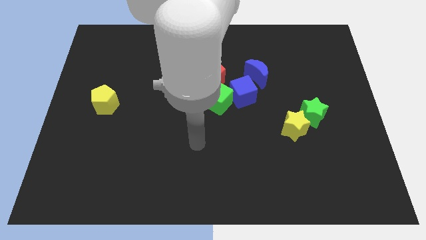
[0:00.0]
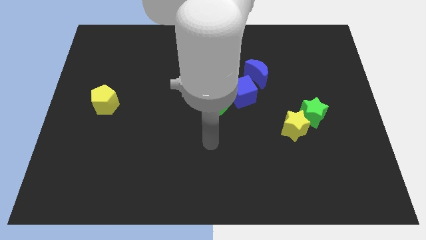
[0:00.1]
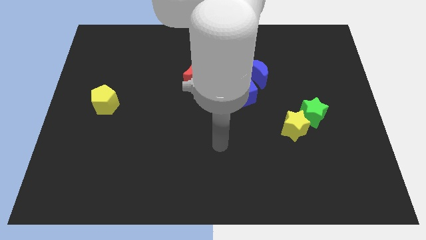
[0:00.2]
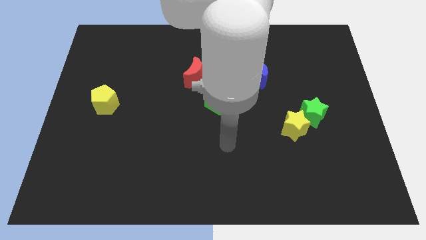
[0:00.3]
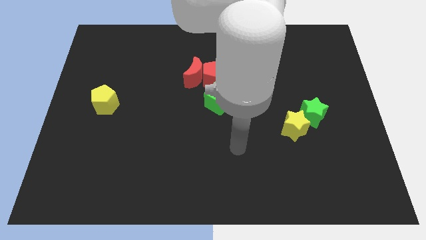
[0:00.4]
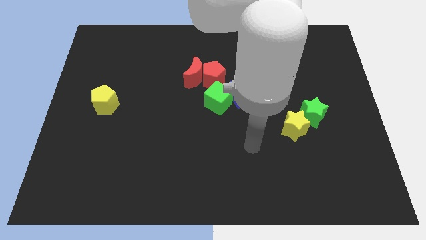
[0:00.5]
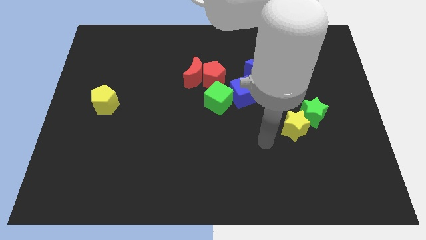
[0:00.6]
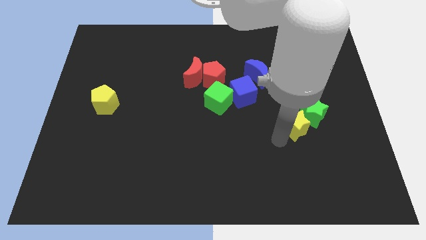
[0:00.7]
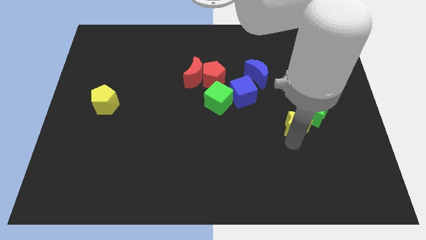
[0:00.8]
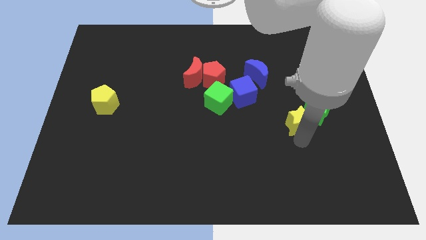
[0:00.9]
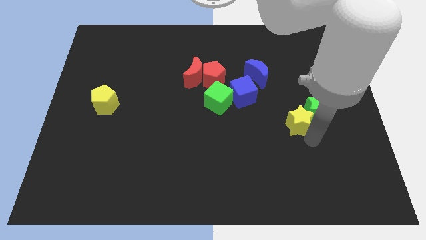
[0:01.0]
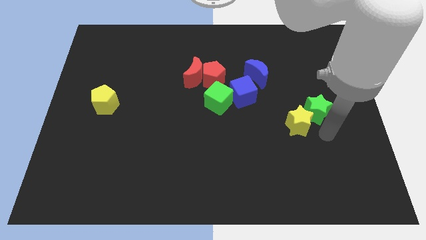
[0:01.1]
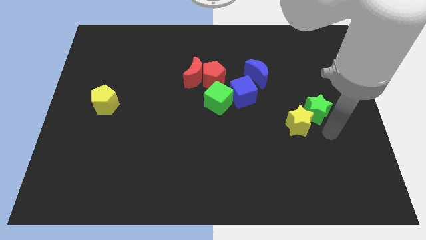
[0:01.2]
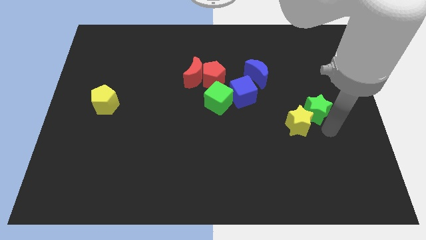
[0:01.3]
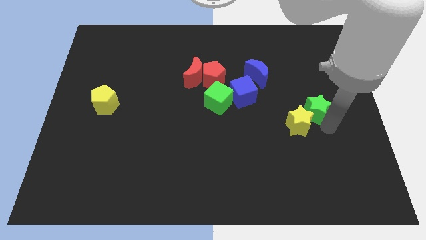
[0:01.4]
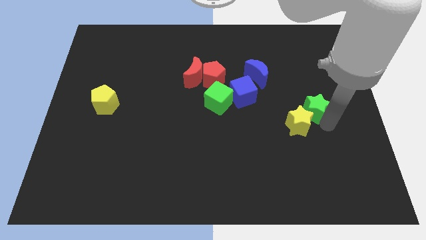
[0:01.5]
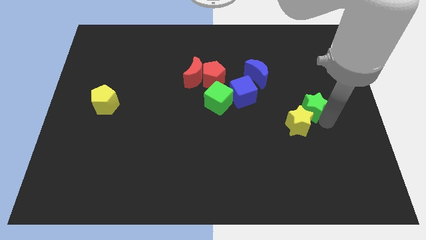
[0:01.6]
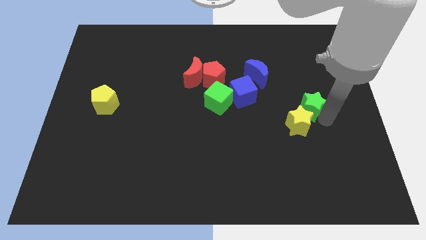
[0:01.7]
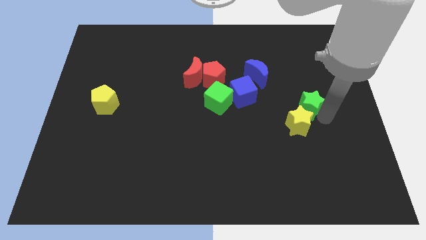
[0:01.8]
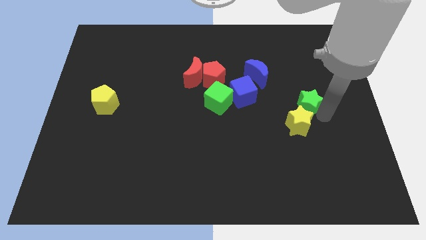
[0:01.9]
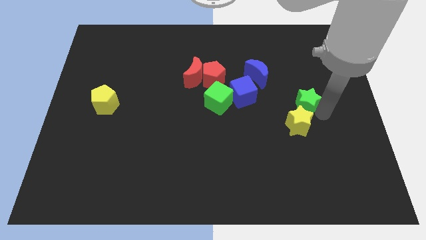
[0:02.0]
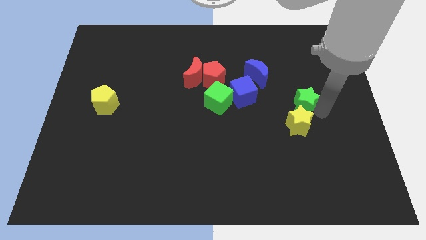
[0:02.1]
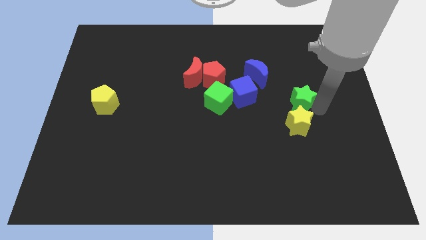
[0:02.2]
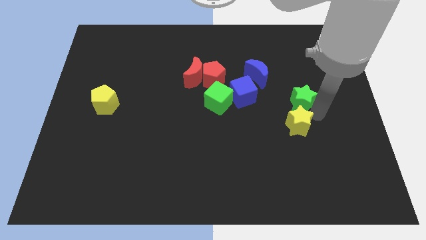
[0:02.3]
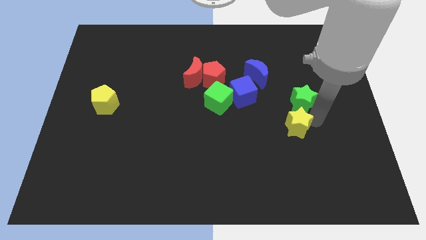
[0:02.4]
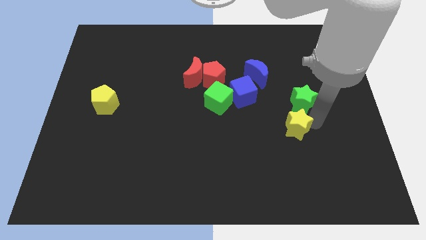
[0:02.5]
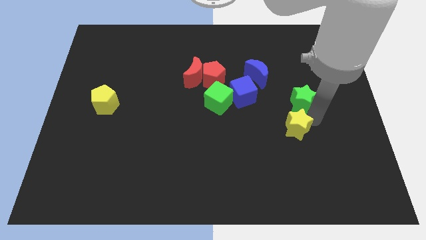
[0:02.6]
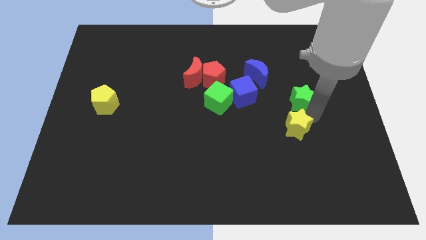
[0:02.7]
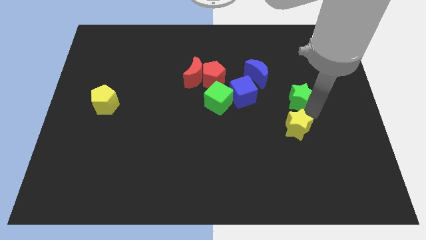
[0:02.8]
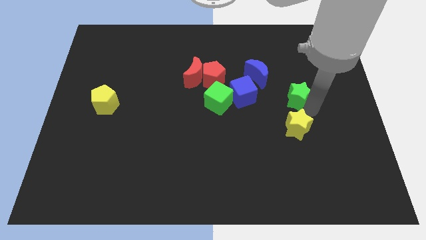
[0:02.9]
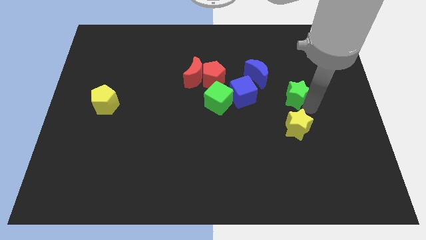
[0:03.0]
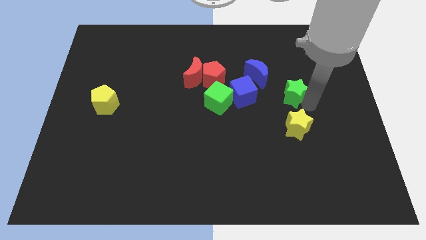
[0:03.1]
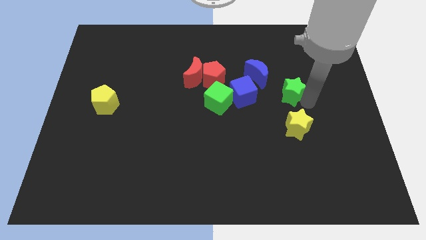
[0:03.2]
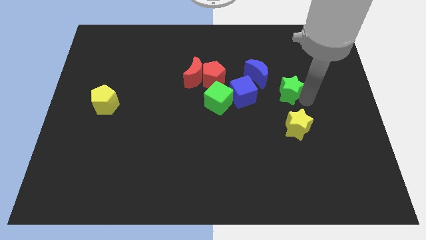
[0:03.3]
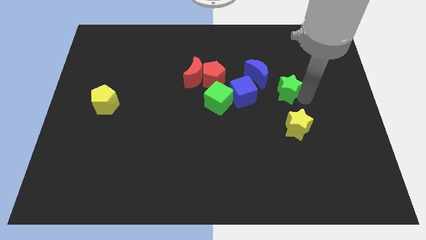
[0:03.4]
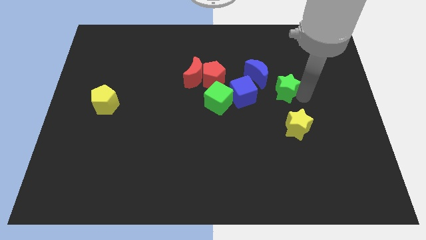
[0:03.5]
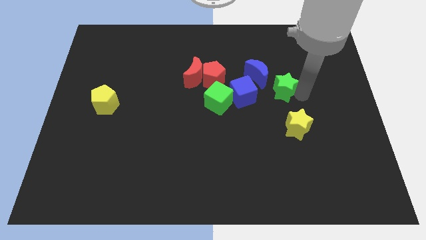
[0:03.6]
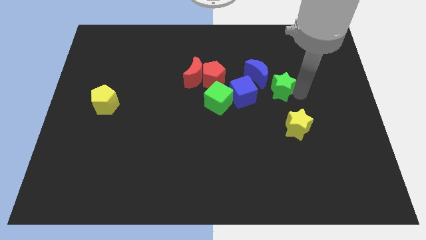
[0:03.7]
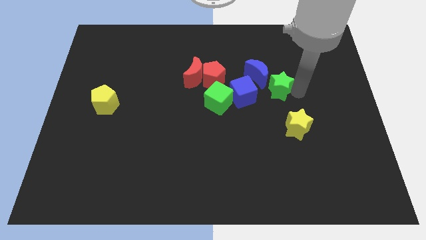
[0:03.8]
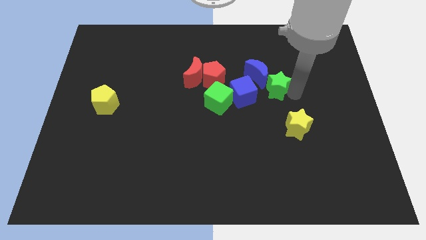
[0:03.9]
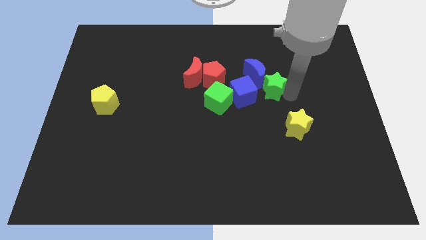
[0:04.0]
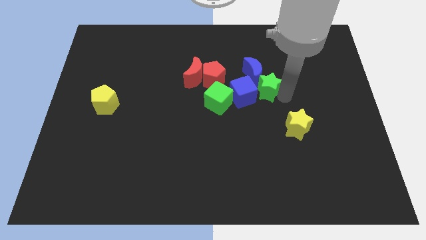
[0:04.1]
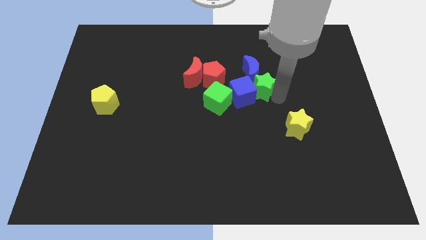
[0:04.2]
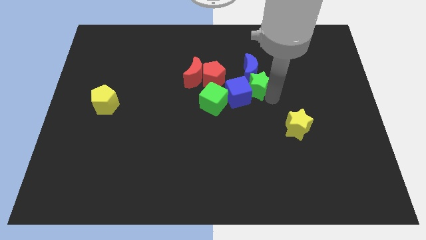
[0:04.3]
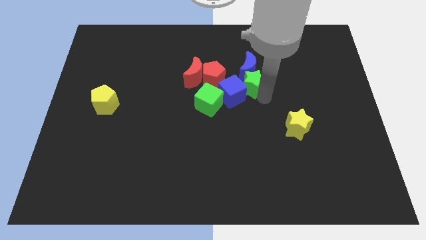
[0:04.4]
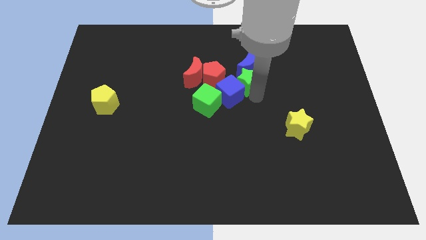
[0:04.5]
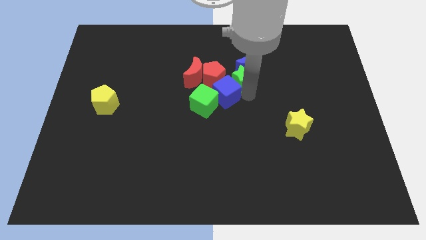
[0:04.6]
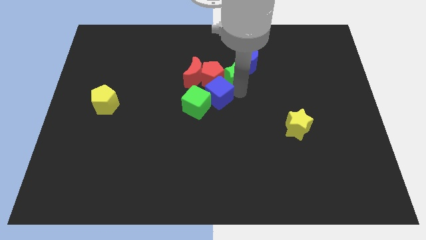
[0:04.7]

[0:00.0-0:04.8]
slide the green star to the red pentagon

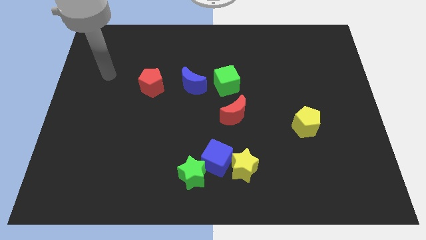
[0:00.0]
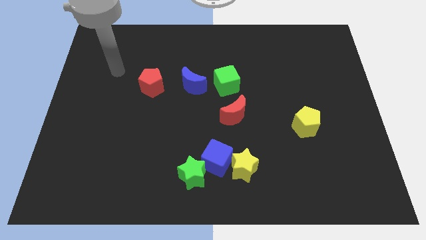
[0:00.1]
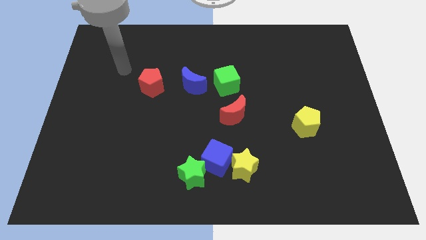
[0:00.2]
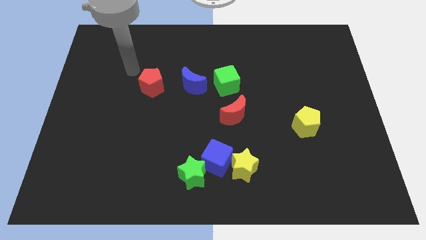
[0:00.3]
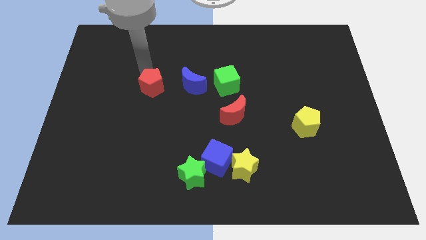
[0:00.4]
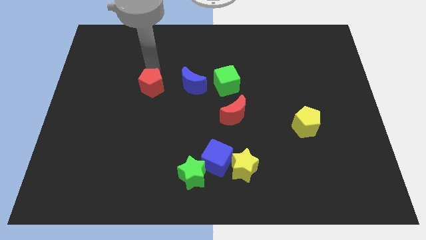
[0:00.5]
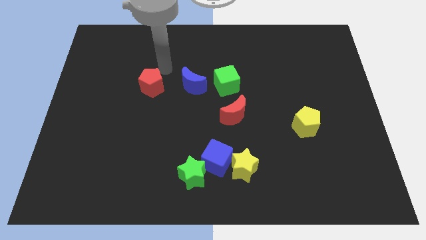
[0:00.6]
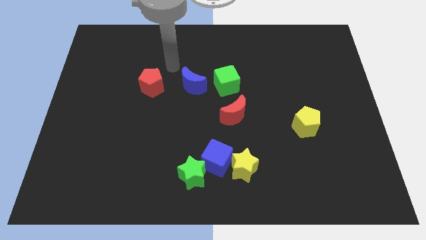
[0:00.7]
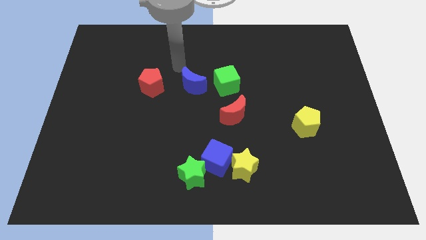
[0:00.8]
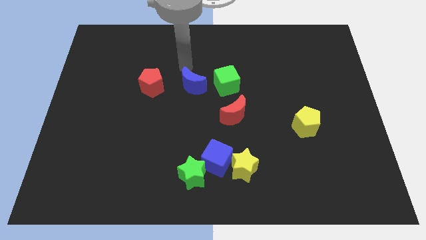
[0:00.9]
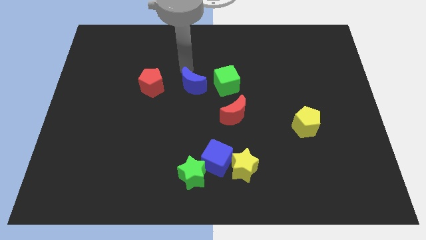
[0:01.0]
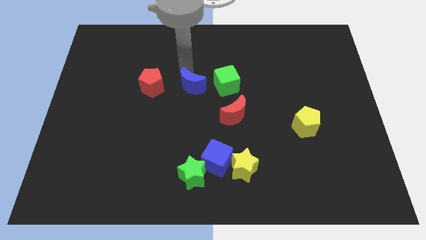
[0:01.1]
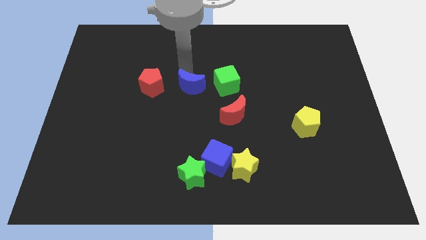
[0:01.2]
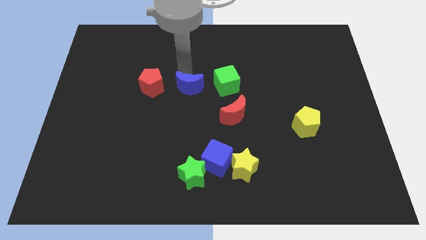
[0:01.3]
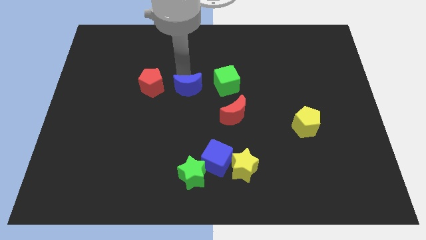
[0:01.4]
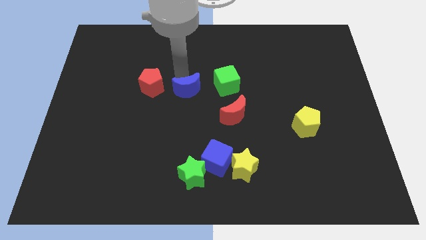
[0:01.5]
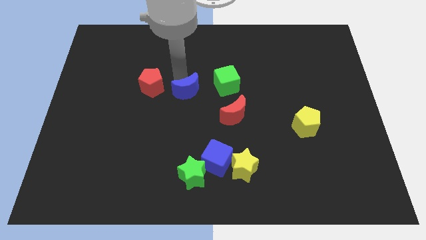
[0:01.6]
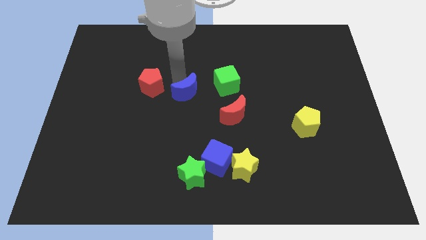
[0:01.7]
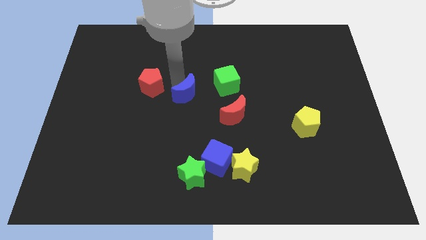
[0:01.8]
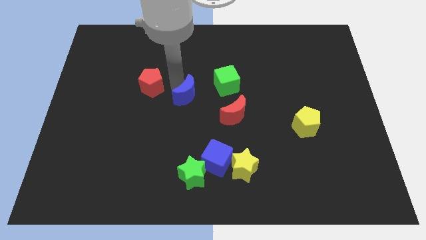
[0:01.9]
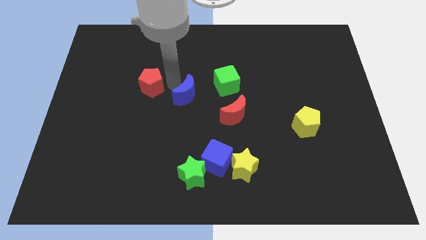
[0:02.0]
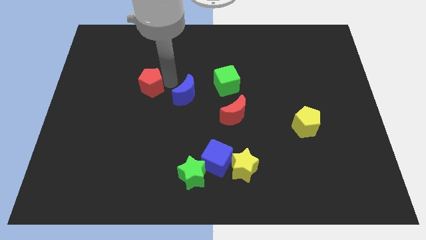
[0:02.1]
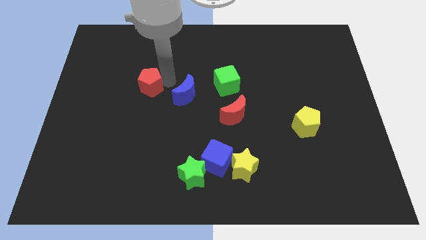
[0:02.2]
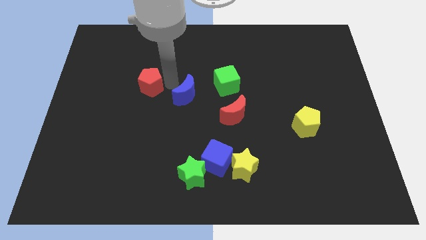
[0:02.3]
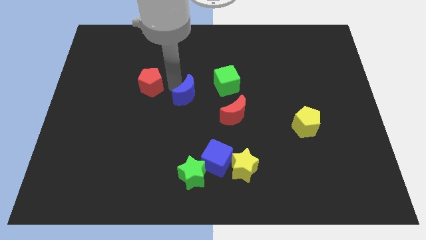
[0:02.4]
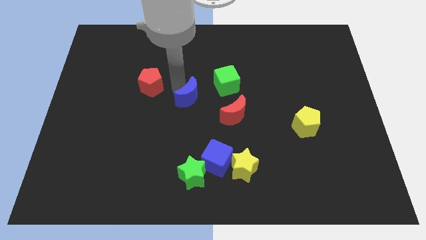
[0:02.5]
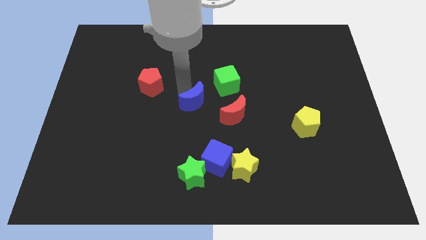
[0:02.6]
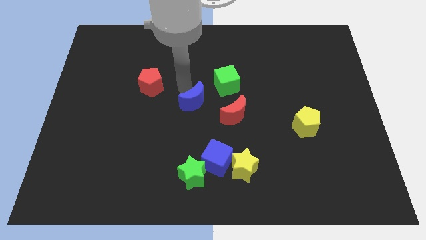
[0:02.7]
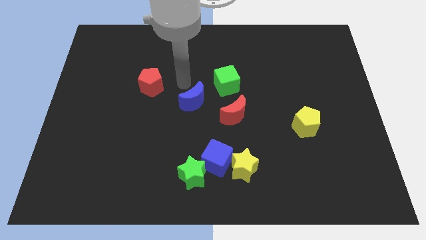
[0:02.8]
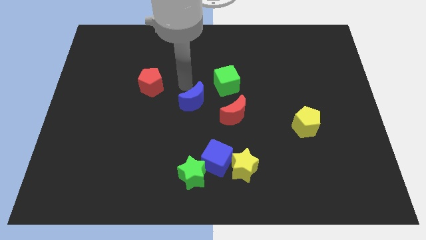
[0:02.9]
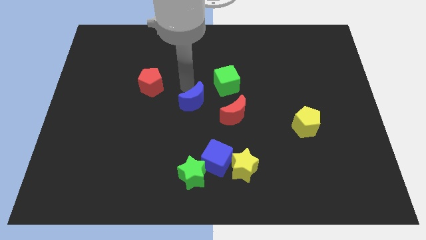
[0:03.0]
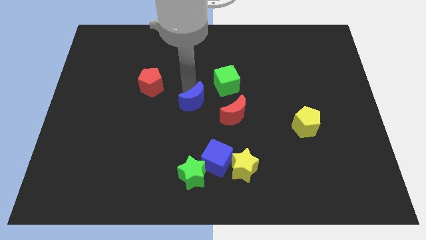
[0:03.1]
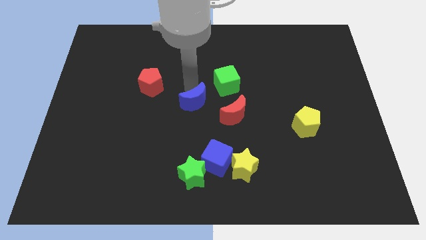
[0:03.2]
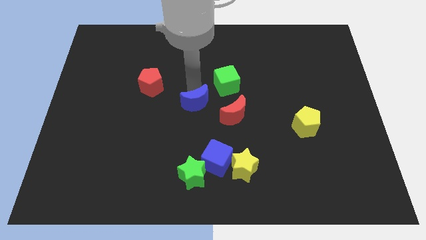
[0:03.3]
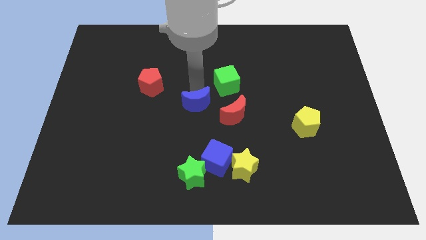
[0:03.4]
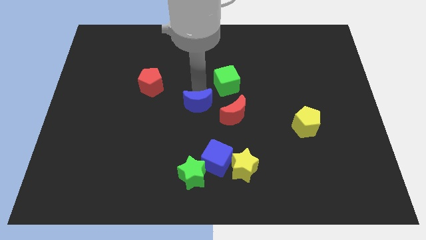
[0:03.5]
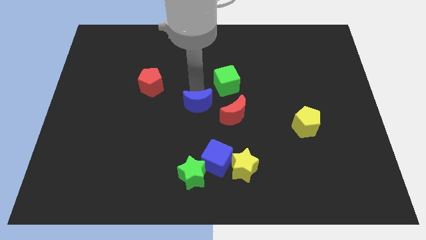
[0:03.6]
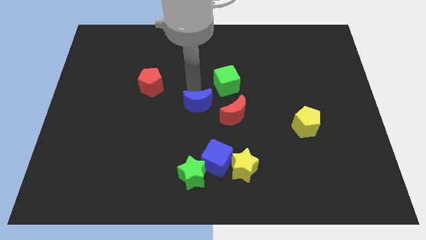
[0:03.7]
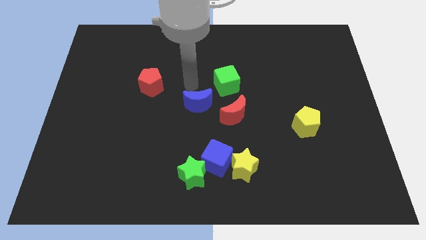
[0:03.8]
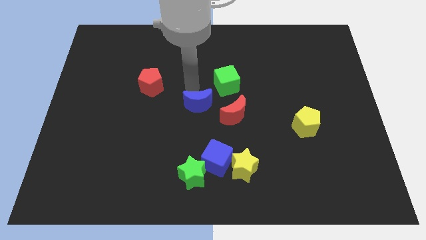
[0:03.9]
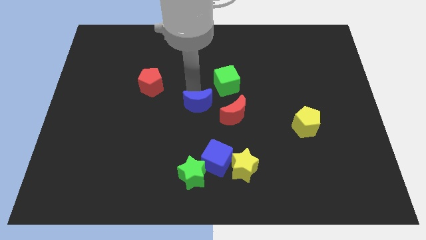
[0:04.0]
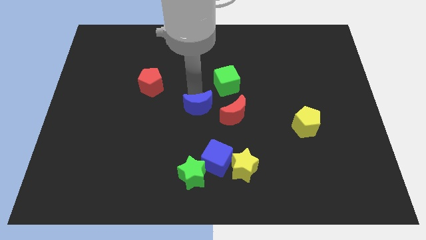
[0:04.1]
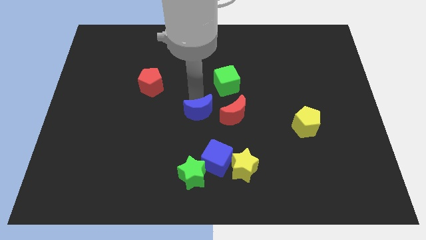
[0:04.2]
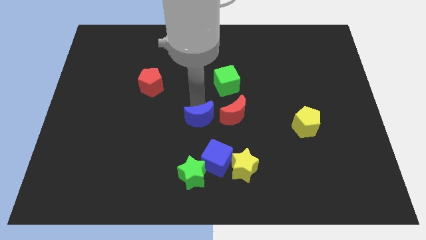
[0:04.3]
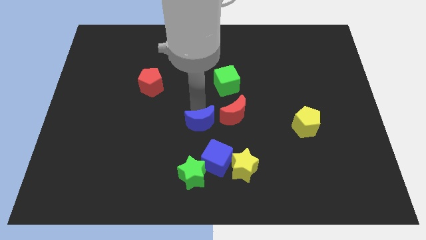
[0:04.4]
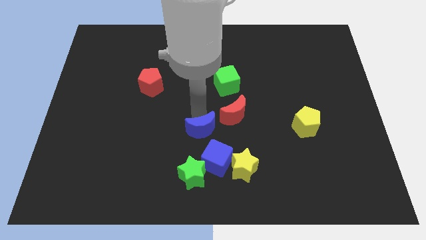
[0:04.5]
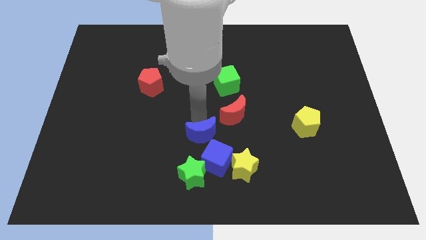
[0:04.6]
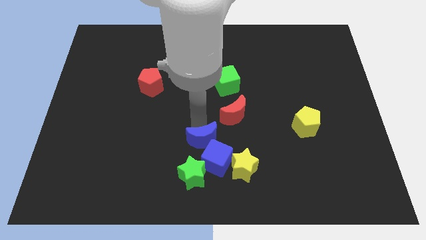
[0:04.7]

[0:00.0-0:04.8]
push the blue moon to the blue cube
